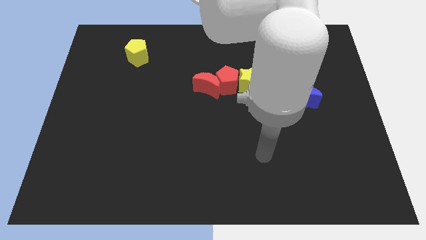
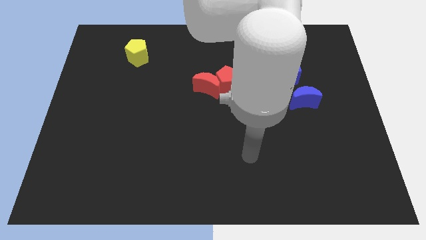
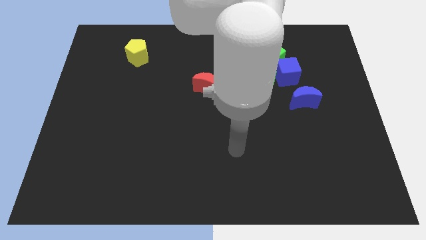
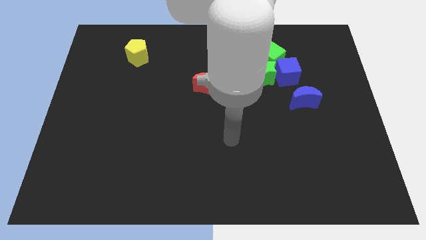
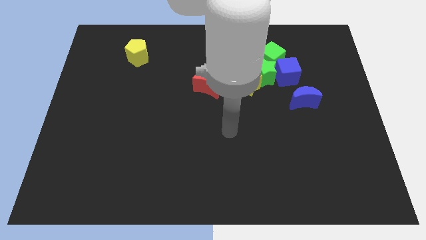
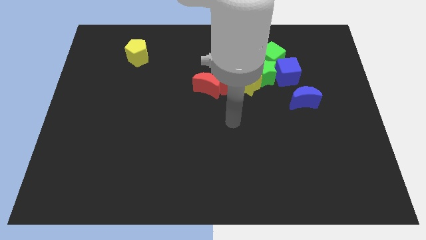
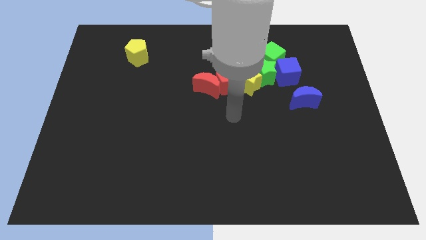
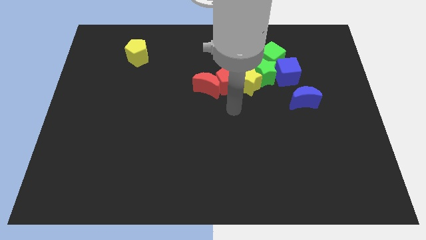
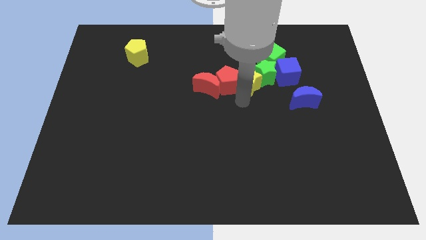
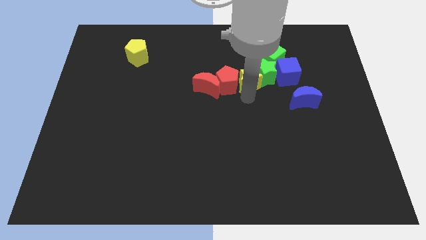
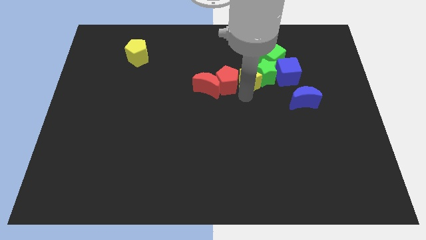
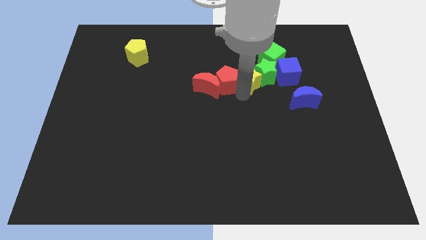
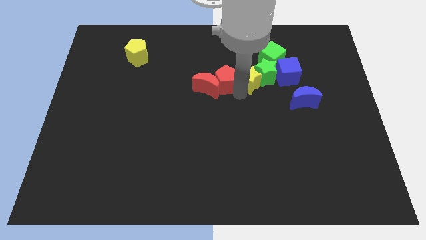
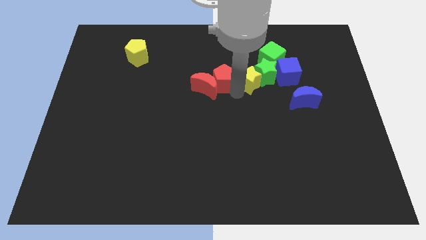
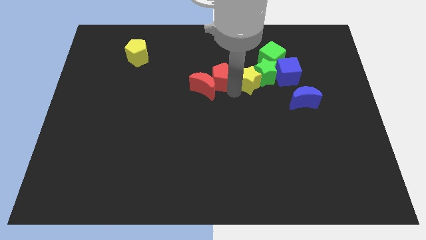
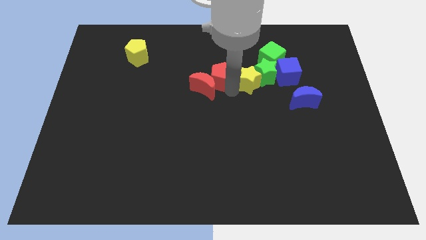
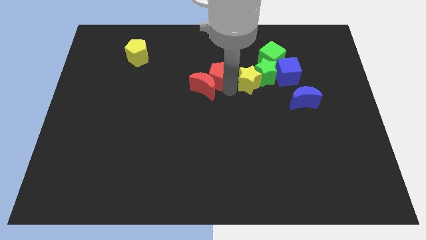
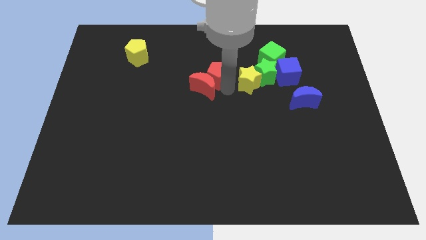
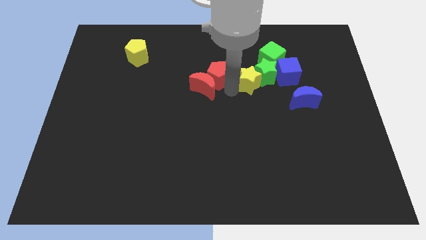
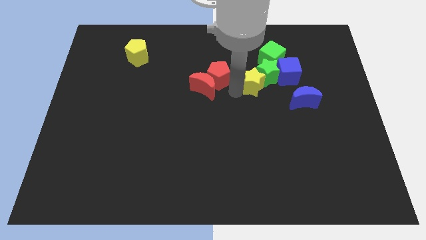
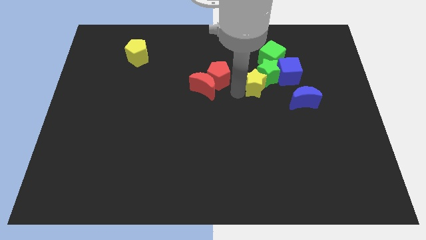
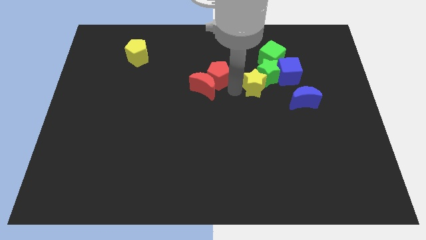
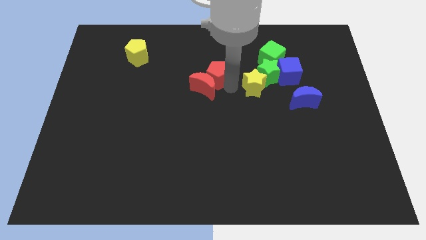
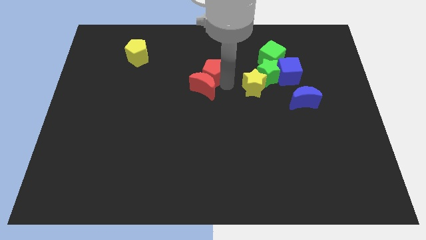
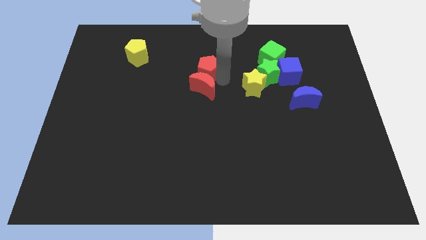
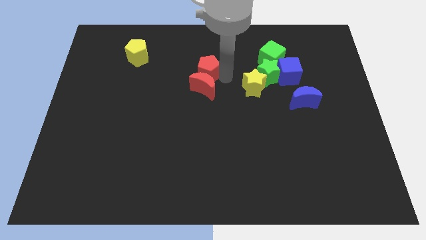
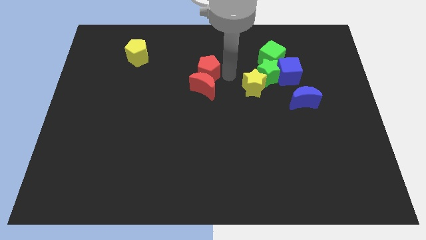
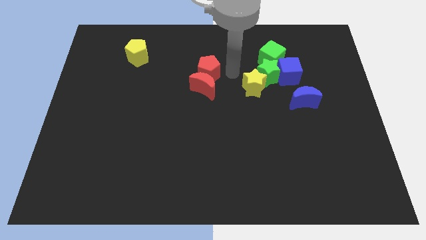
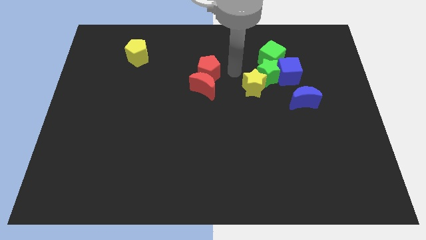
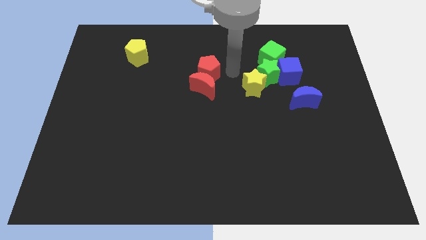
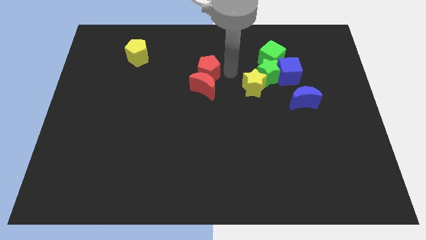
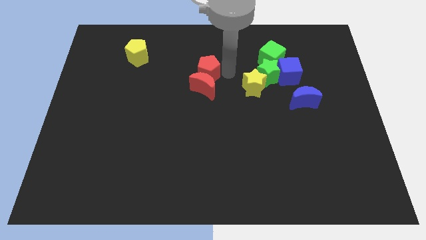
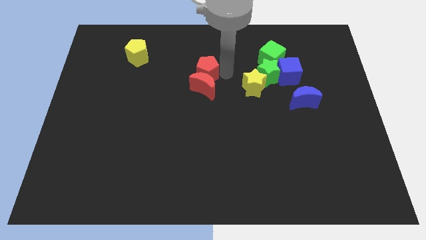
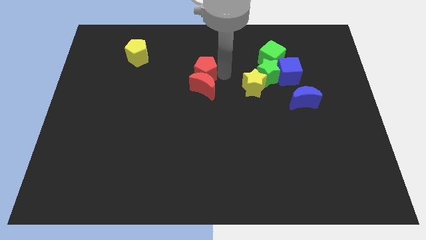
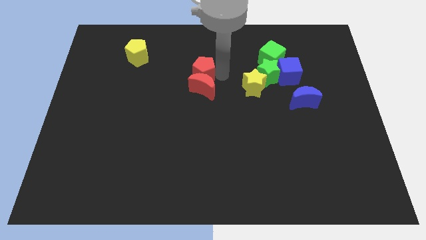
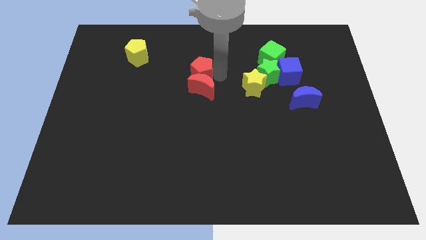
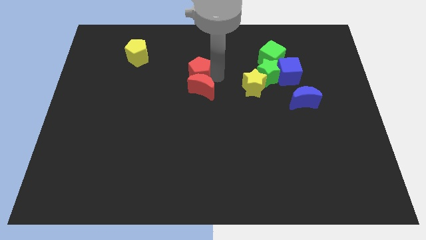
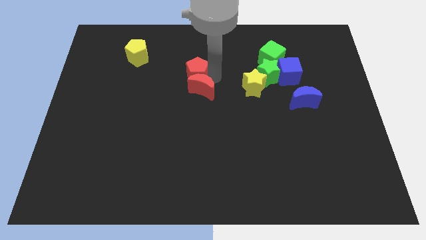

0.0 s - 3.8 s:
move the red pentagon a bit left

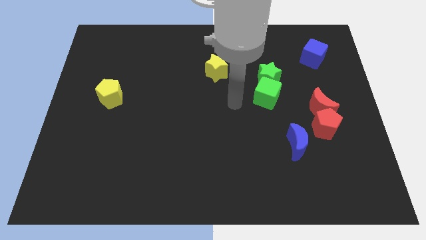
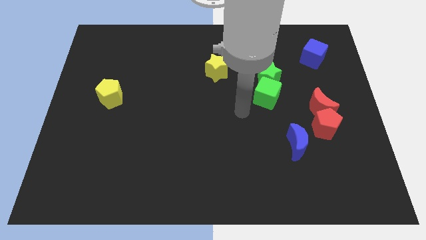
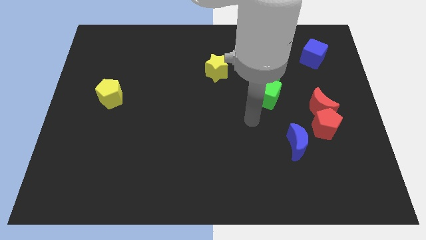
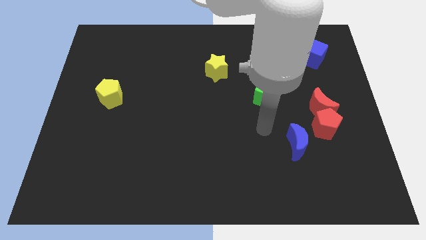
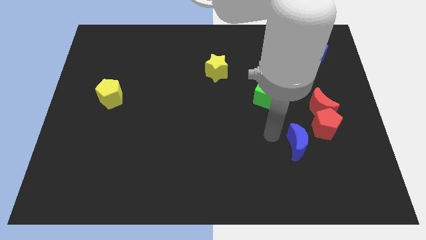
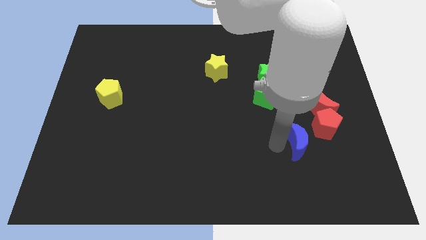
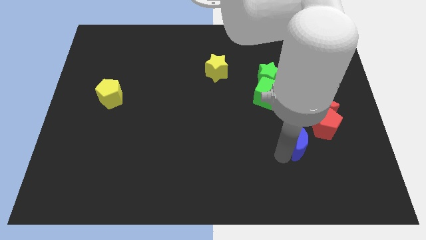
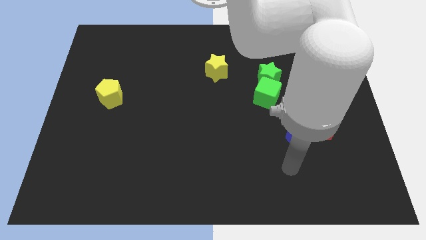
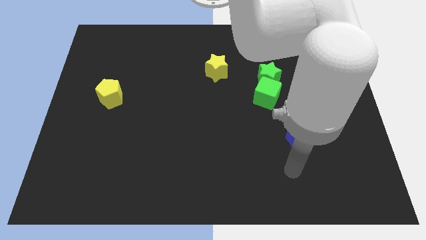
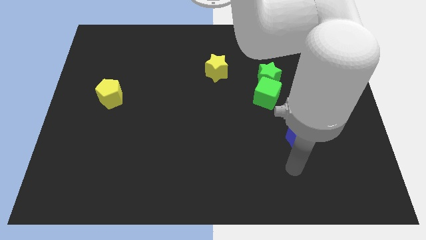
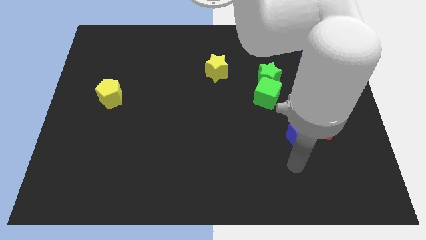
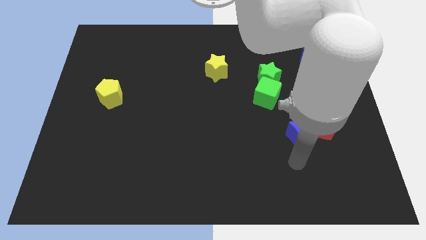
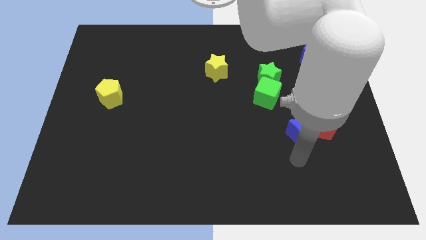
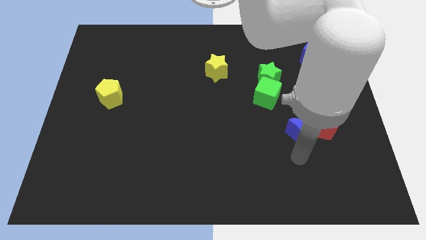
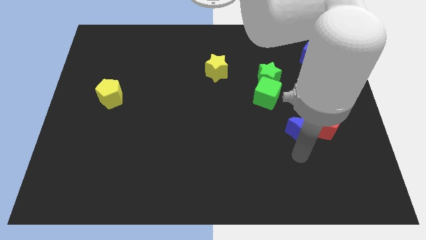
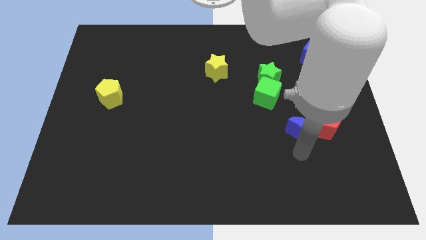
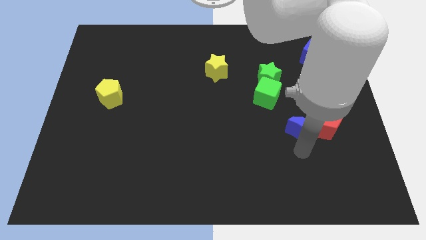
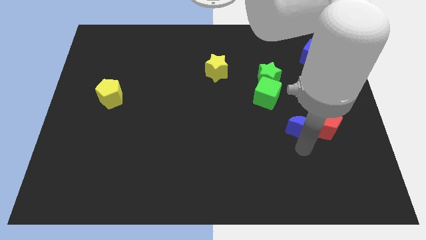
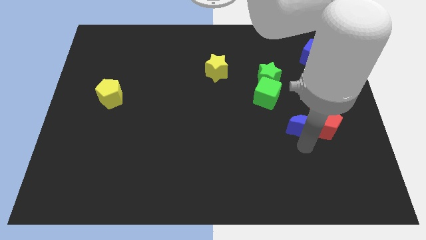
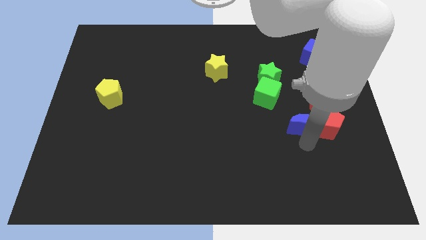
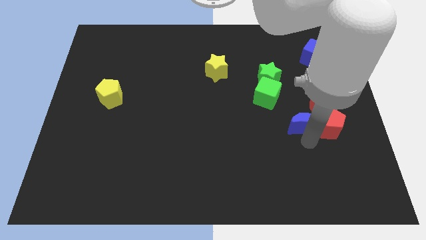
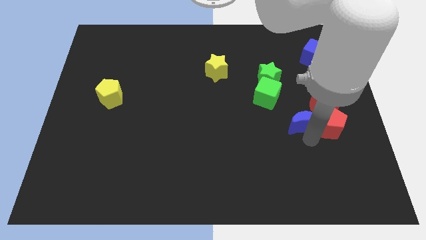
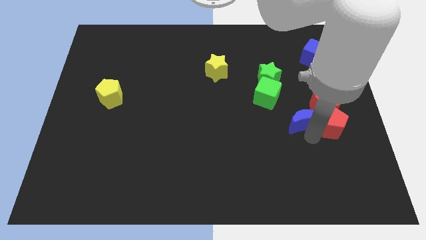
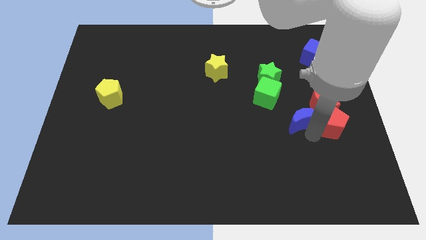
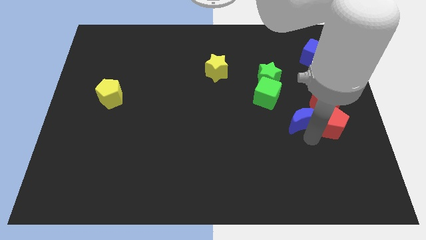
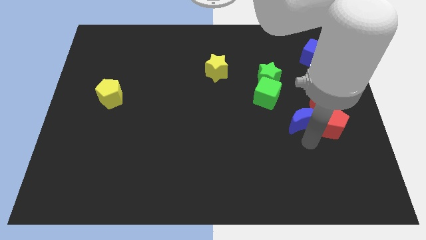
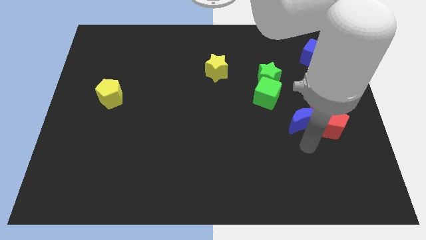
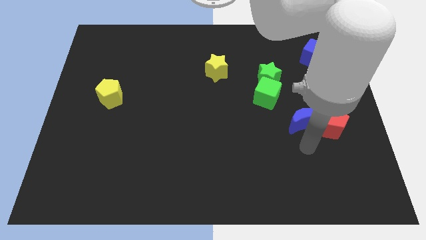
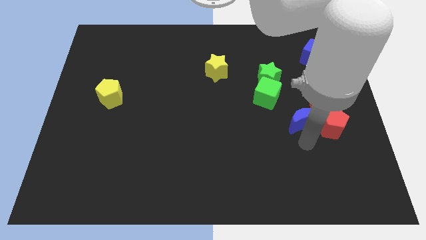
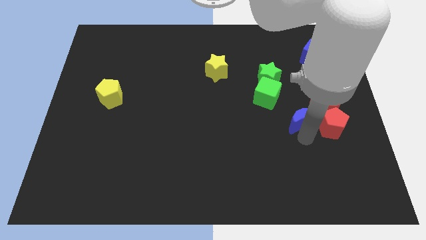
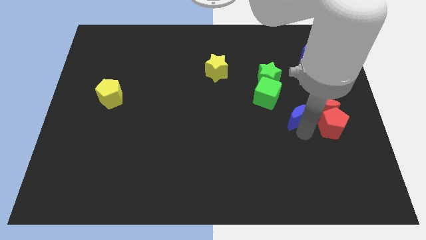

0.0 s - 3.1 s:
slightly move the blue moon upwards

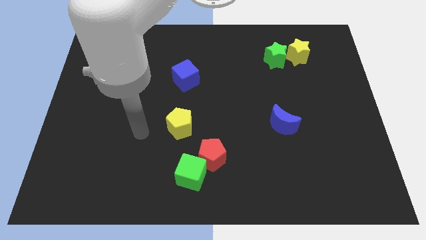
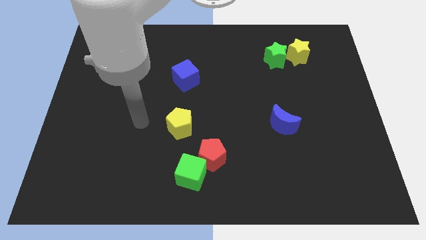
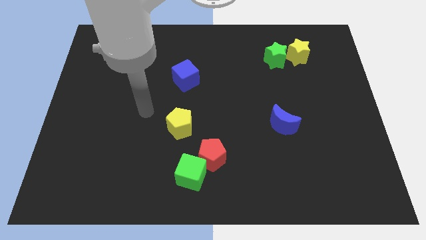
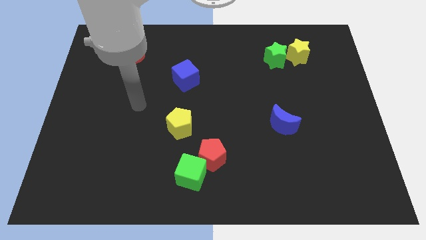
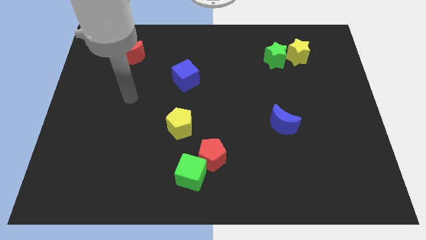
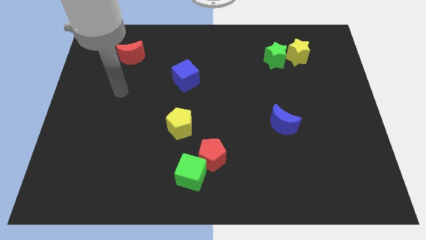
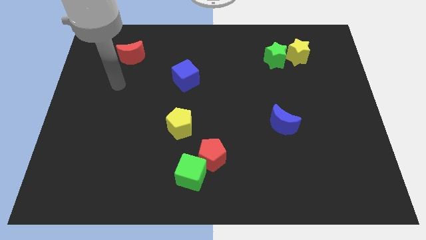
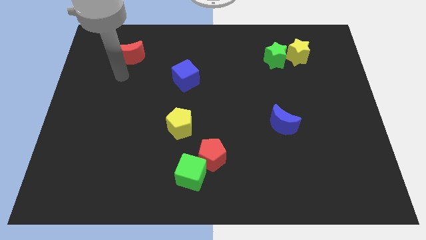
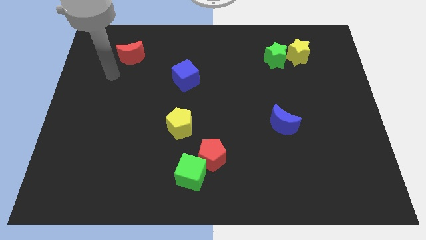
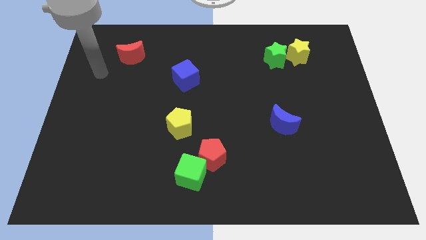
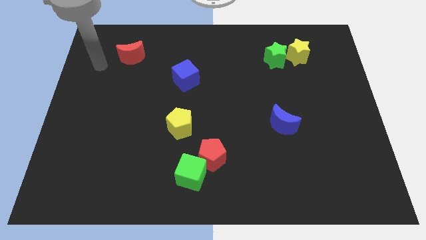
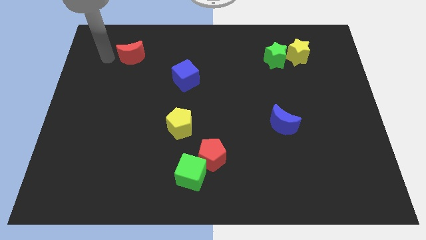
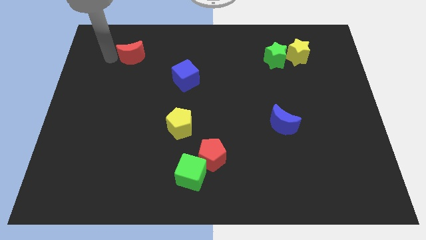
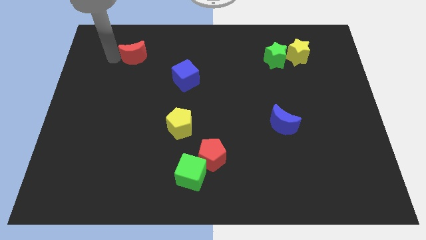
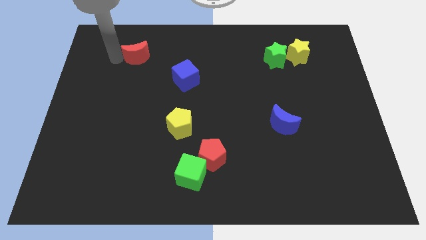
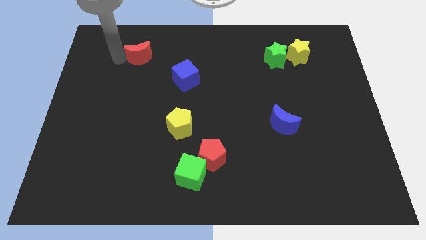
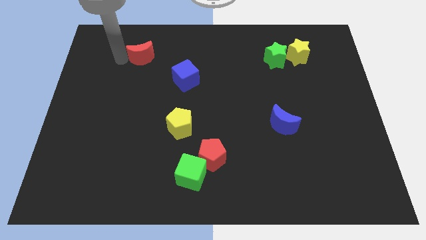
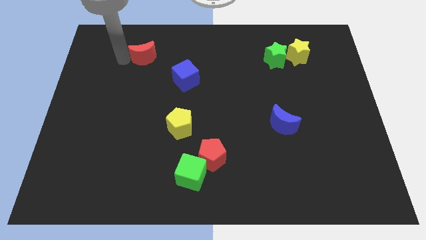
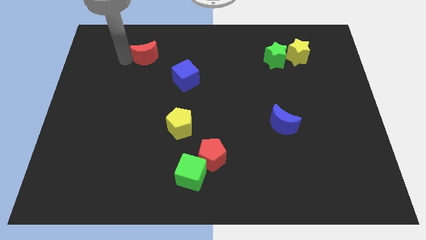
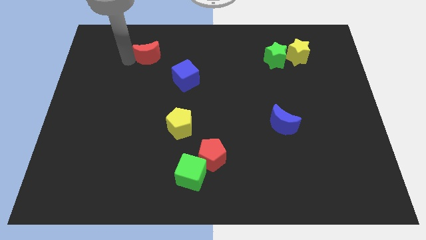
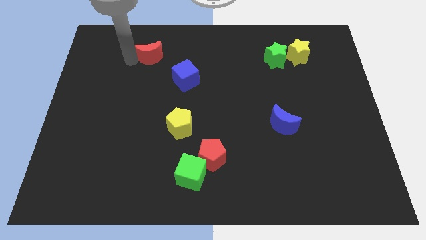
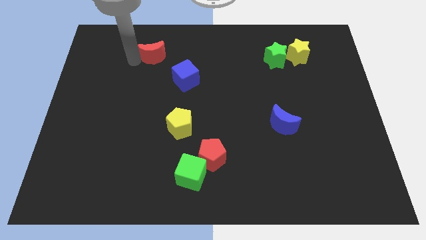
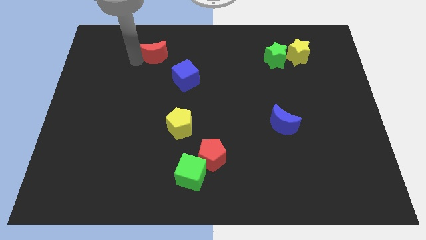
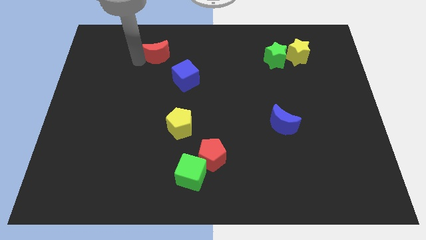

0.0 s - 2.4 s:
slide the red moon a little bit to the right
